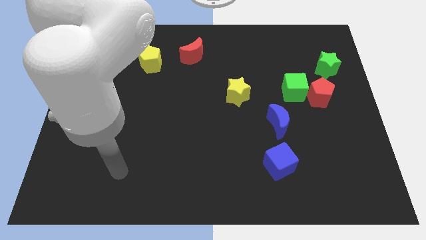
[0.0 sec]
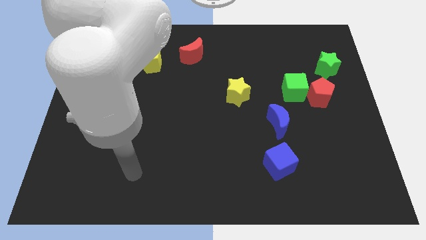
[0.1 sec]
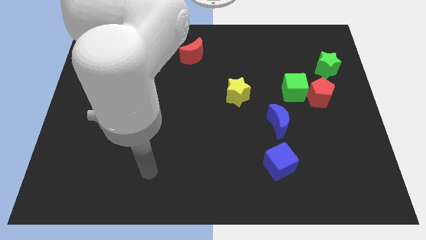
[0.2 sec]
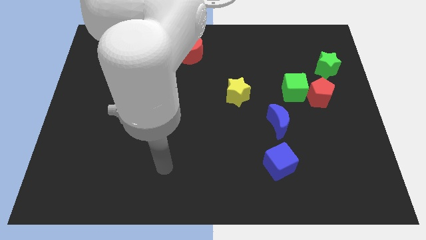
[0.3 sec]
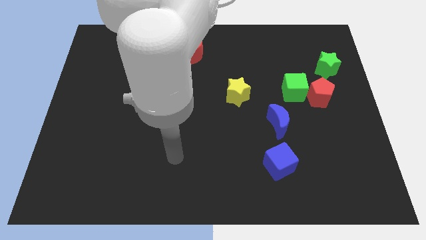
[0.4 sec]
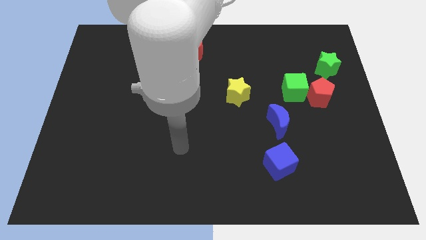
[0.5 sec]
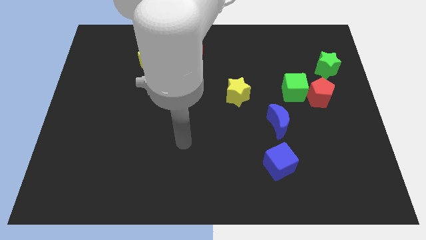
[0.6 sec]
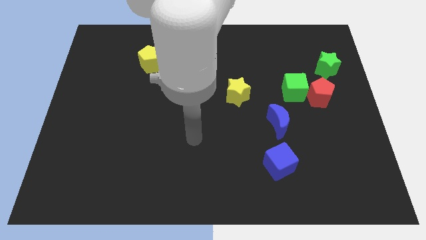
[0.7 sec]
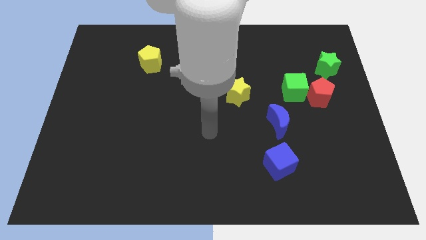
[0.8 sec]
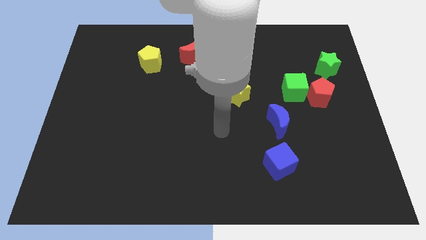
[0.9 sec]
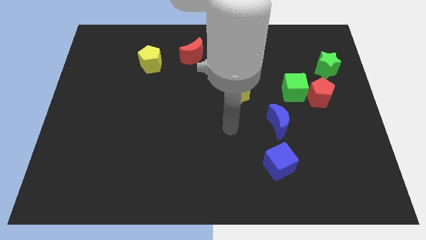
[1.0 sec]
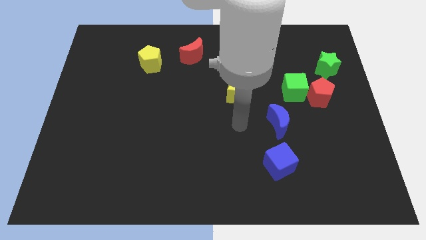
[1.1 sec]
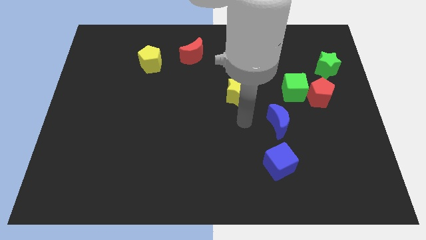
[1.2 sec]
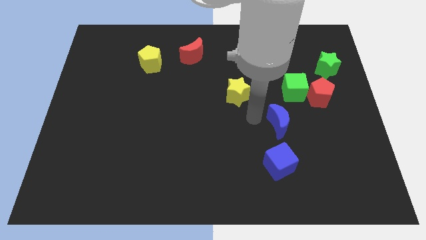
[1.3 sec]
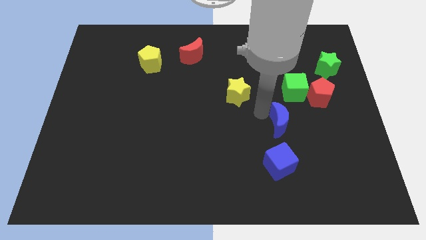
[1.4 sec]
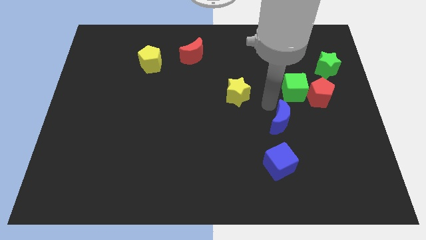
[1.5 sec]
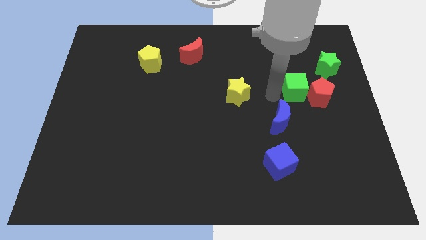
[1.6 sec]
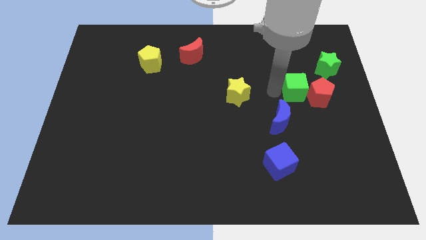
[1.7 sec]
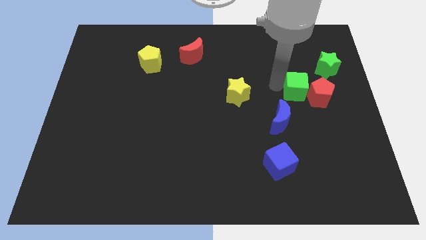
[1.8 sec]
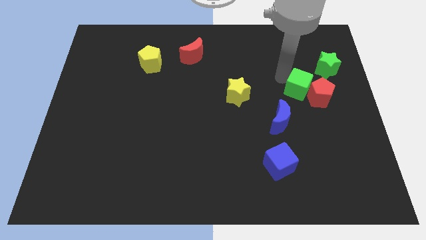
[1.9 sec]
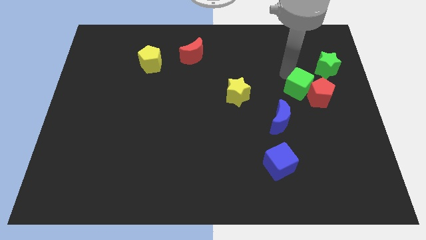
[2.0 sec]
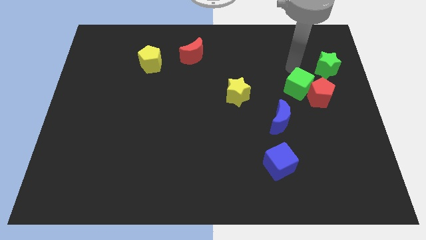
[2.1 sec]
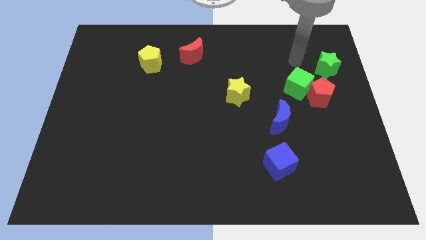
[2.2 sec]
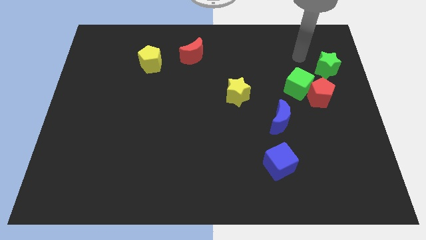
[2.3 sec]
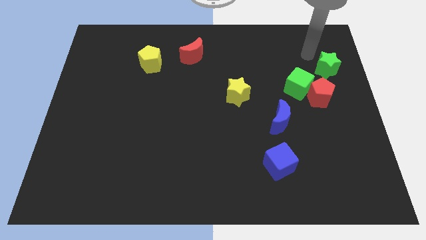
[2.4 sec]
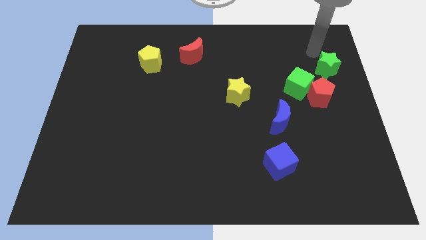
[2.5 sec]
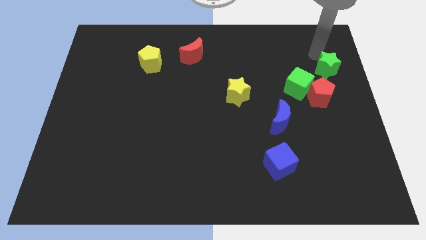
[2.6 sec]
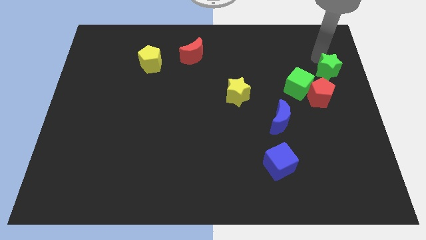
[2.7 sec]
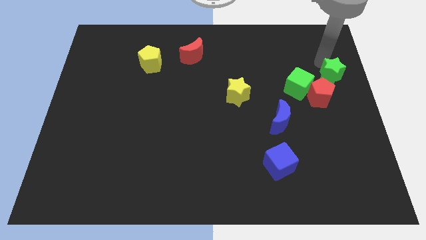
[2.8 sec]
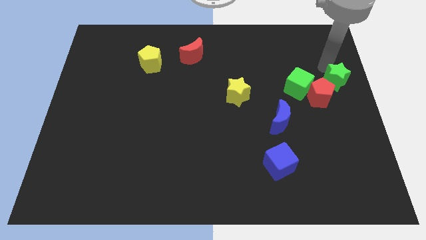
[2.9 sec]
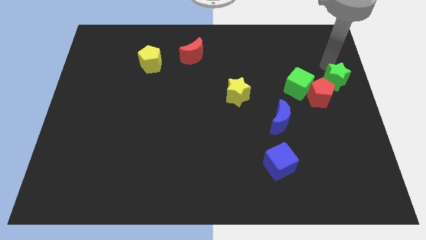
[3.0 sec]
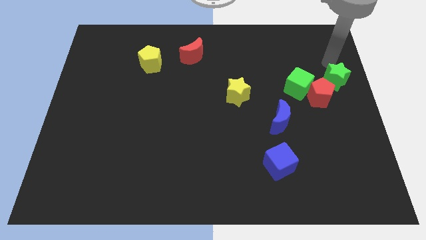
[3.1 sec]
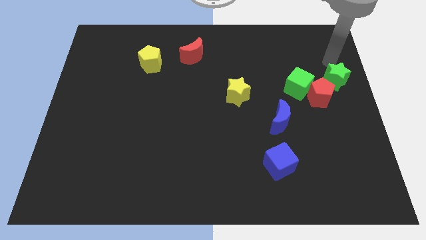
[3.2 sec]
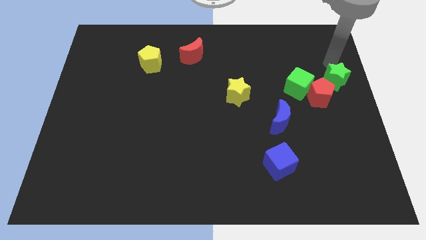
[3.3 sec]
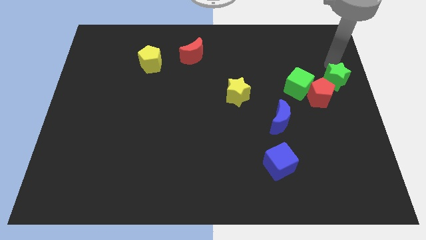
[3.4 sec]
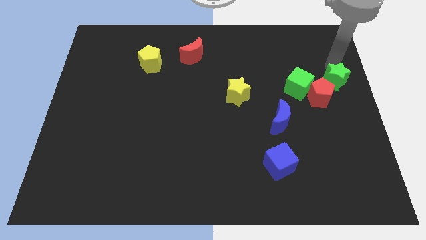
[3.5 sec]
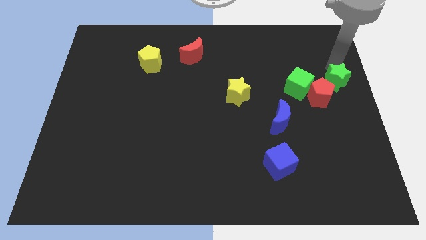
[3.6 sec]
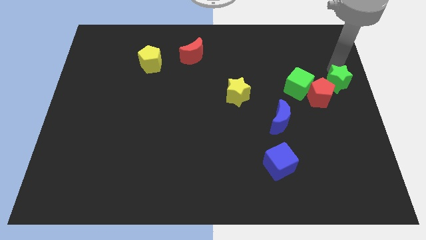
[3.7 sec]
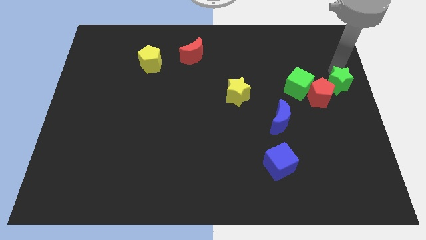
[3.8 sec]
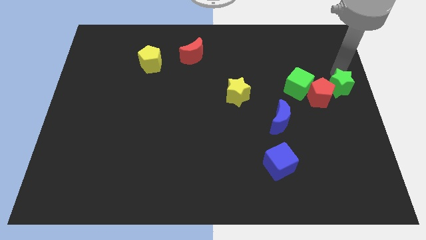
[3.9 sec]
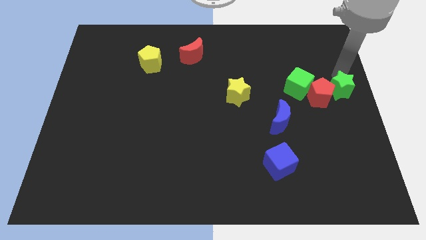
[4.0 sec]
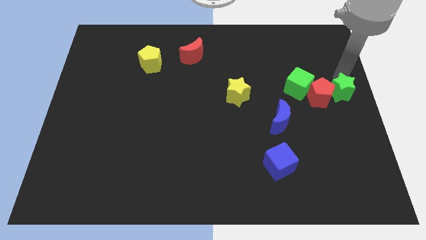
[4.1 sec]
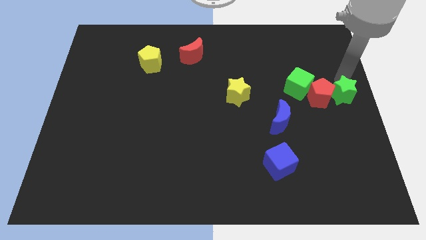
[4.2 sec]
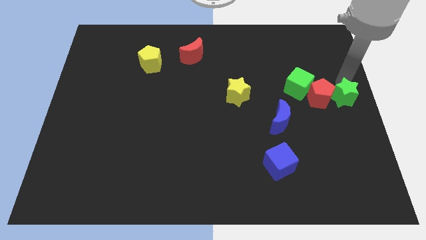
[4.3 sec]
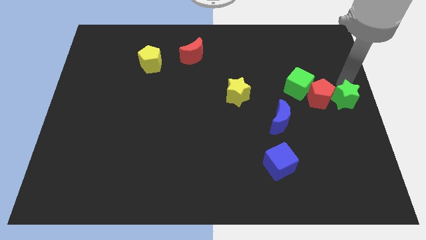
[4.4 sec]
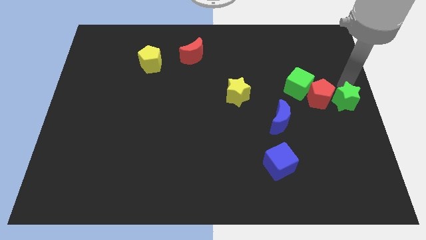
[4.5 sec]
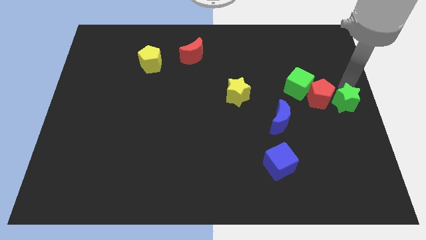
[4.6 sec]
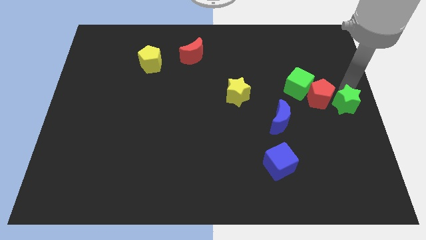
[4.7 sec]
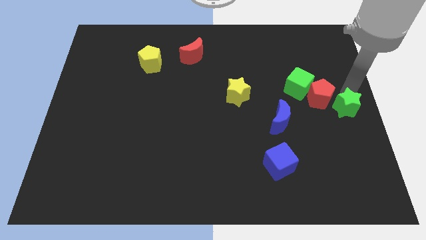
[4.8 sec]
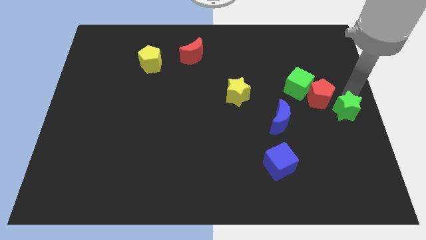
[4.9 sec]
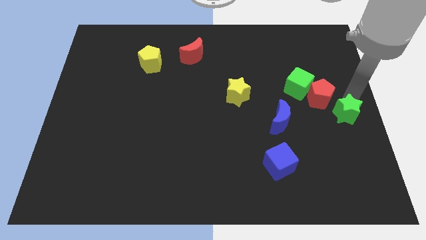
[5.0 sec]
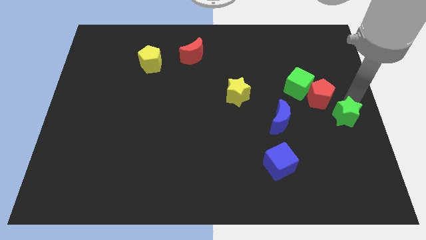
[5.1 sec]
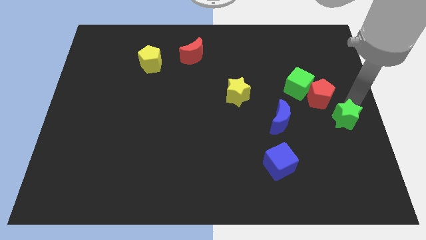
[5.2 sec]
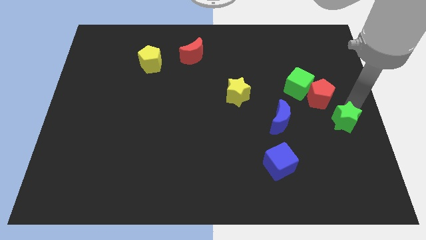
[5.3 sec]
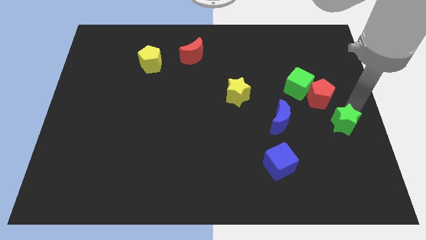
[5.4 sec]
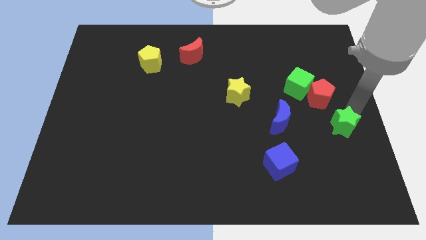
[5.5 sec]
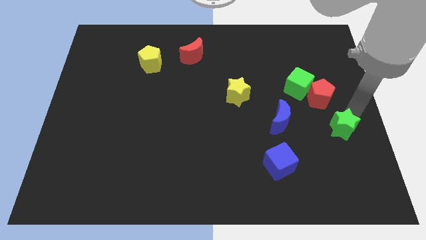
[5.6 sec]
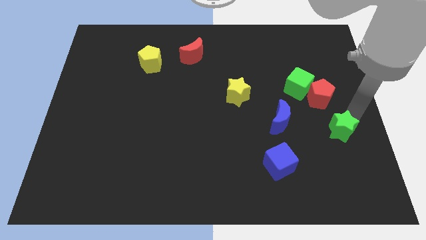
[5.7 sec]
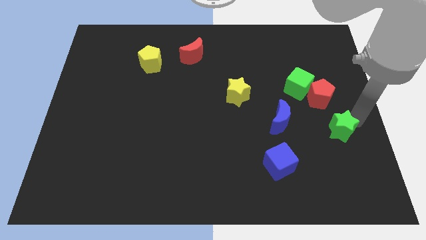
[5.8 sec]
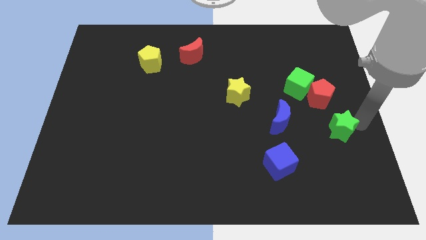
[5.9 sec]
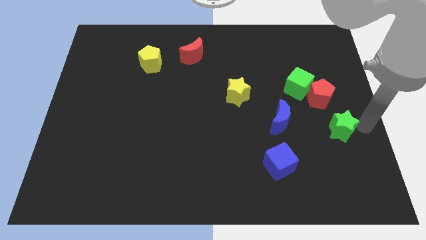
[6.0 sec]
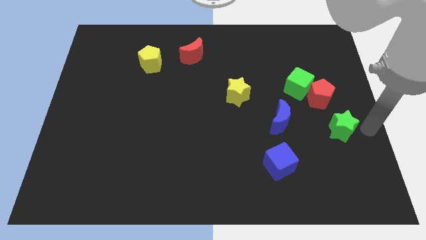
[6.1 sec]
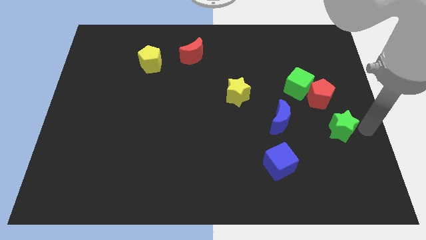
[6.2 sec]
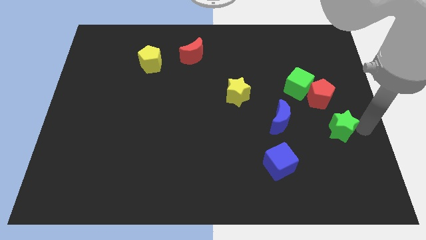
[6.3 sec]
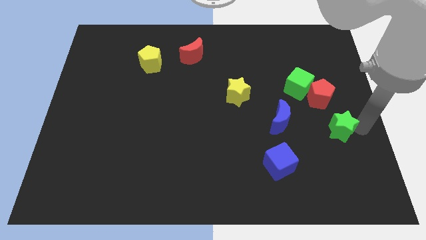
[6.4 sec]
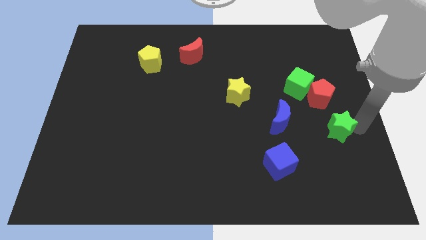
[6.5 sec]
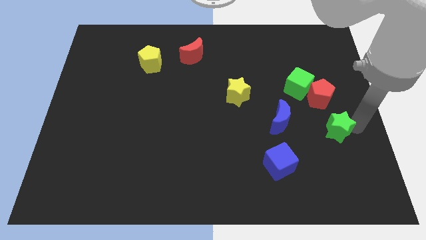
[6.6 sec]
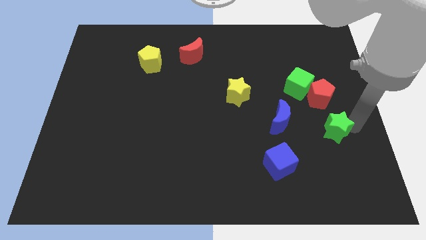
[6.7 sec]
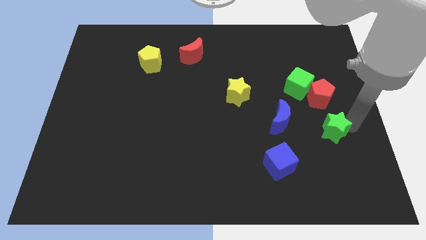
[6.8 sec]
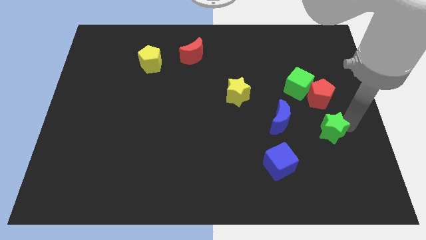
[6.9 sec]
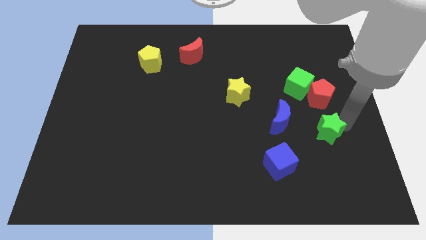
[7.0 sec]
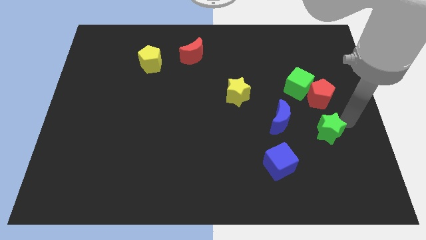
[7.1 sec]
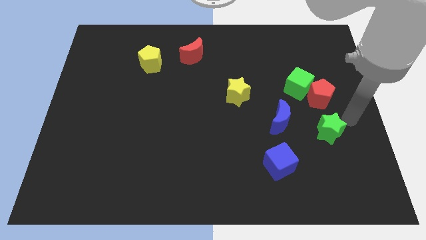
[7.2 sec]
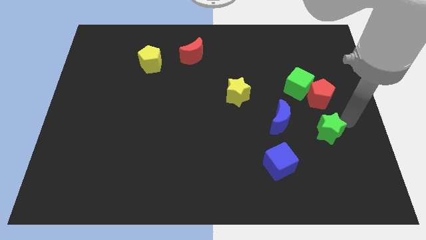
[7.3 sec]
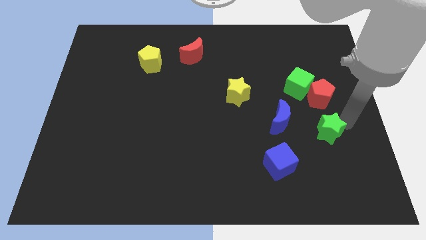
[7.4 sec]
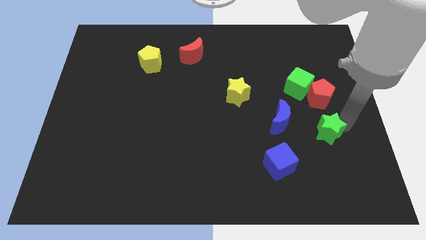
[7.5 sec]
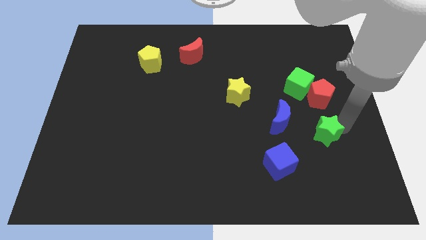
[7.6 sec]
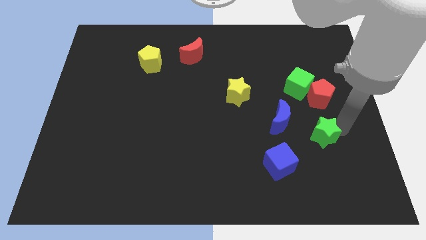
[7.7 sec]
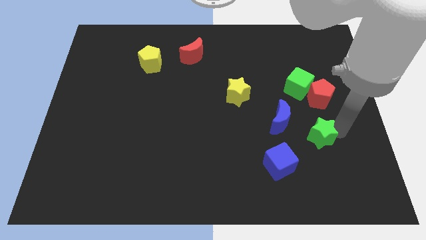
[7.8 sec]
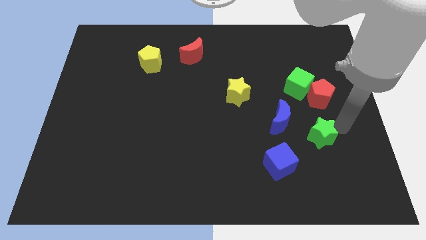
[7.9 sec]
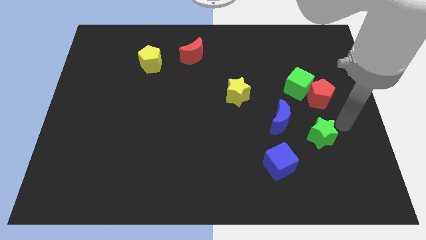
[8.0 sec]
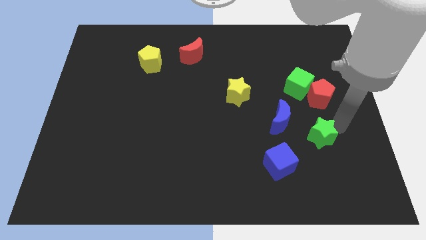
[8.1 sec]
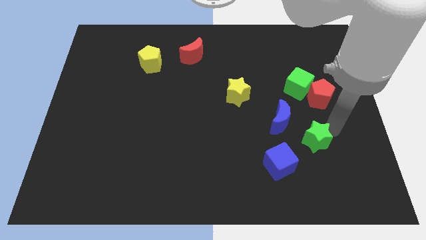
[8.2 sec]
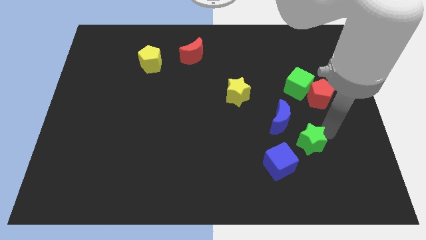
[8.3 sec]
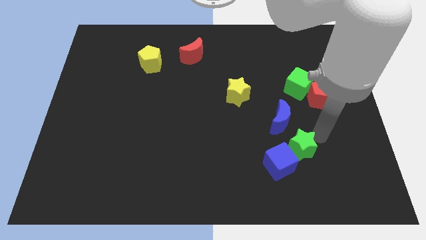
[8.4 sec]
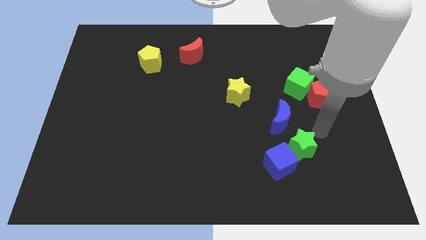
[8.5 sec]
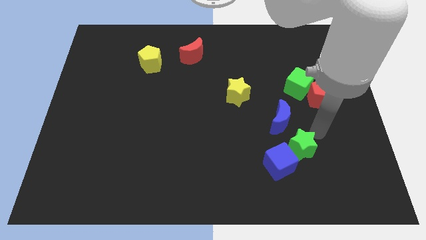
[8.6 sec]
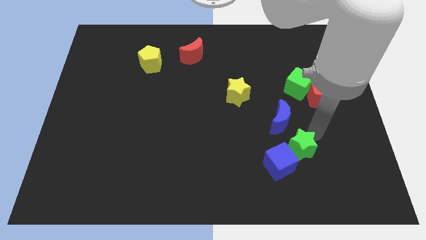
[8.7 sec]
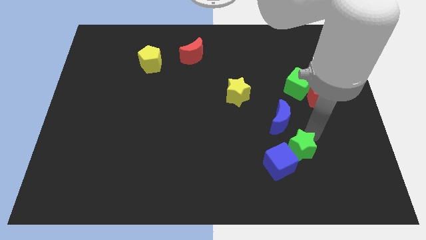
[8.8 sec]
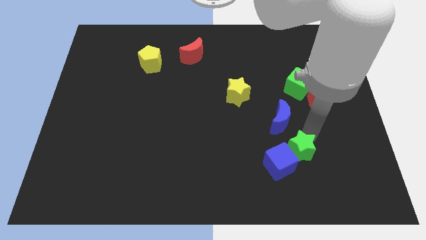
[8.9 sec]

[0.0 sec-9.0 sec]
push the green star next to the blue cube
